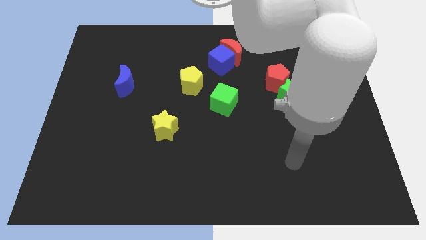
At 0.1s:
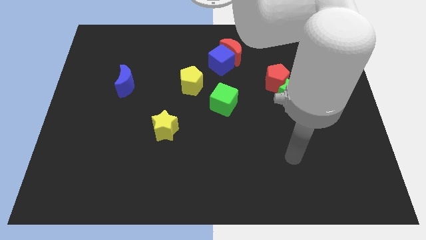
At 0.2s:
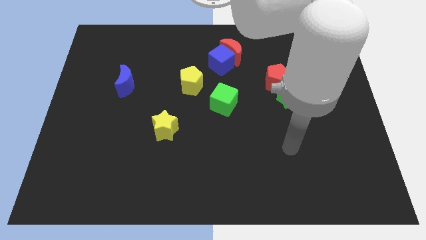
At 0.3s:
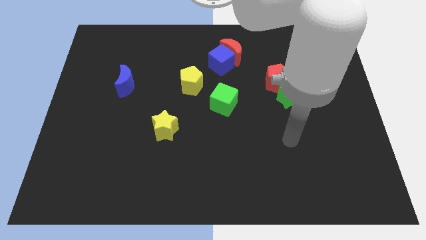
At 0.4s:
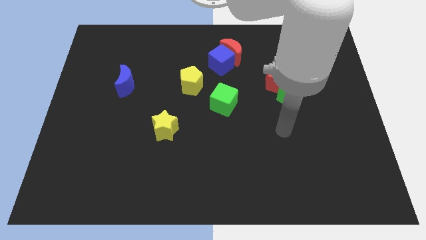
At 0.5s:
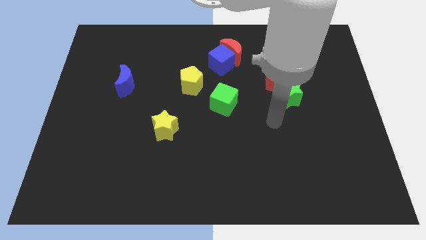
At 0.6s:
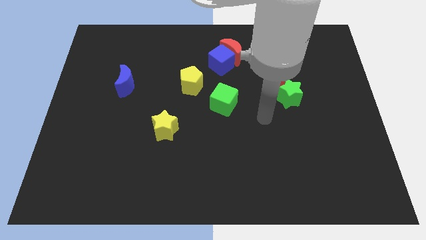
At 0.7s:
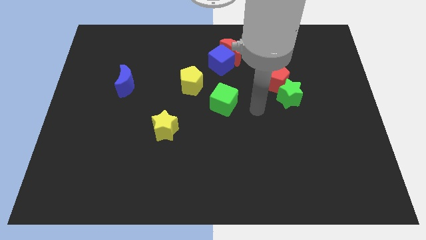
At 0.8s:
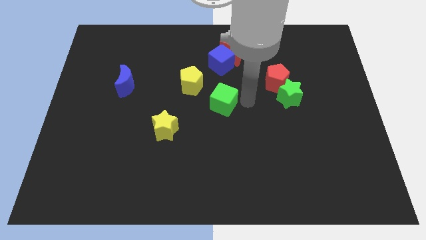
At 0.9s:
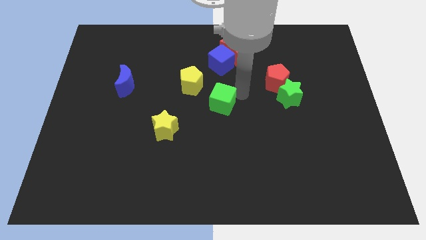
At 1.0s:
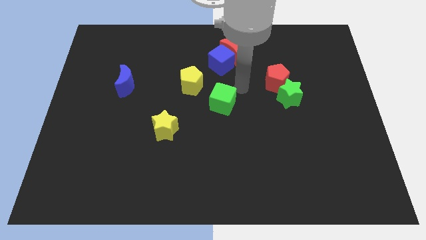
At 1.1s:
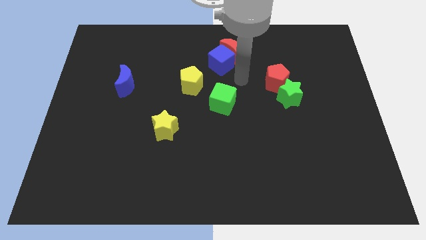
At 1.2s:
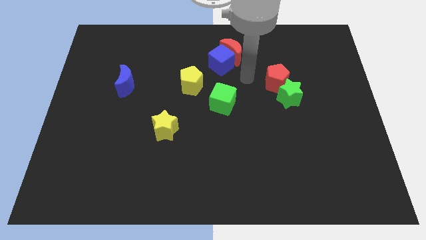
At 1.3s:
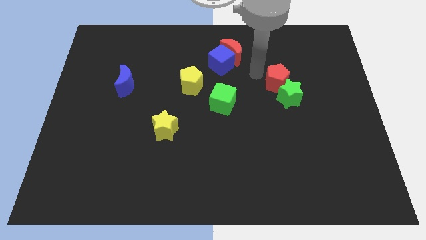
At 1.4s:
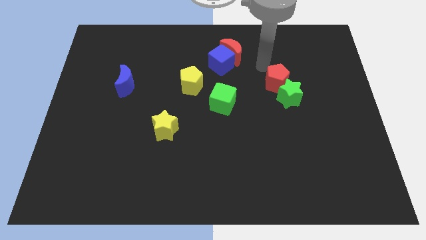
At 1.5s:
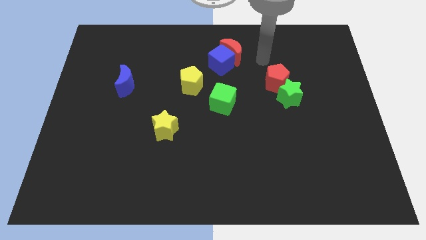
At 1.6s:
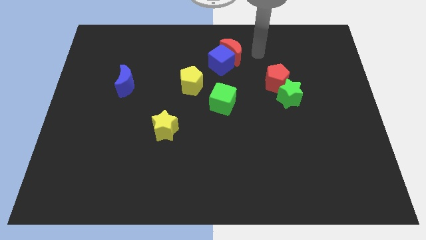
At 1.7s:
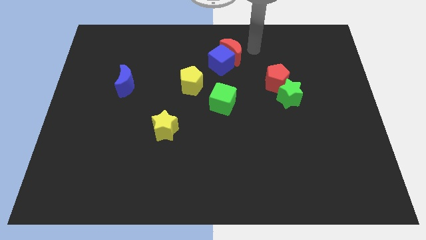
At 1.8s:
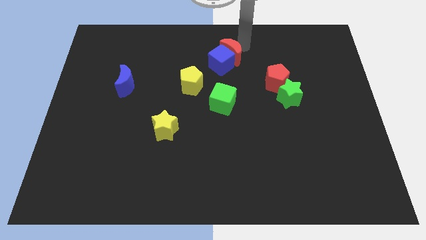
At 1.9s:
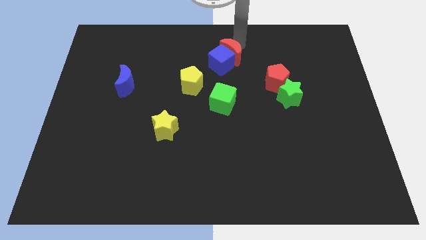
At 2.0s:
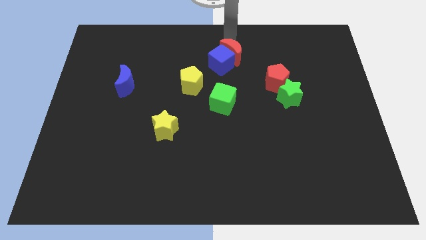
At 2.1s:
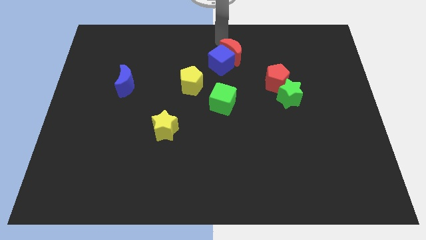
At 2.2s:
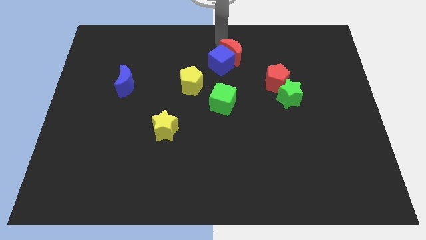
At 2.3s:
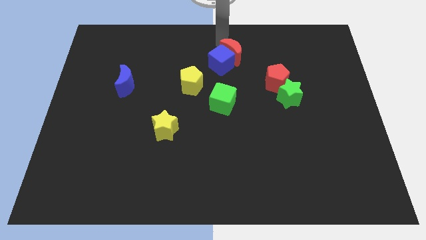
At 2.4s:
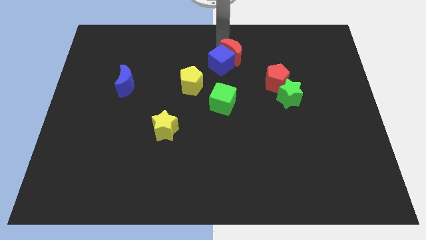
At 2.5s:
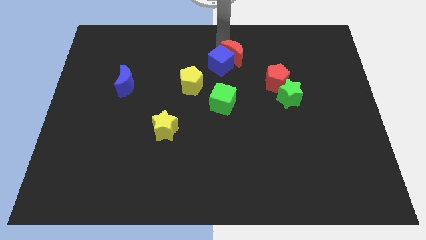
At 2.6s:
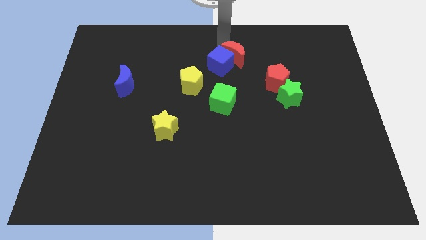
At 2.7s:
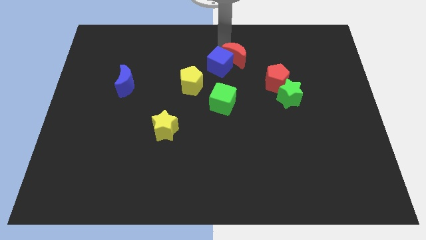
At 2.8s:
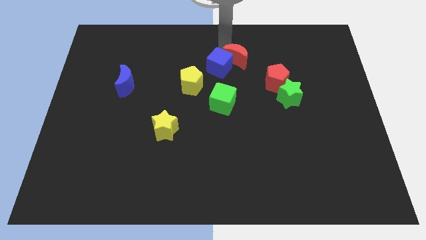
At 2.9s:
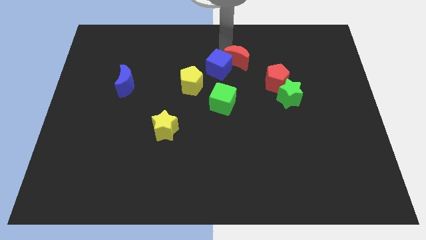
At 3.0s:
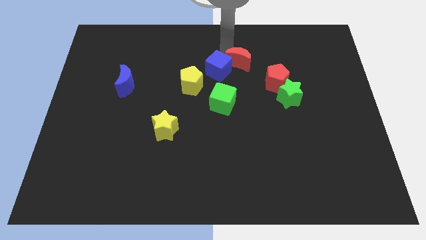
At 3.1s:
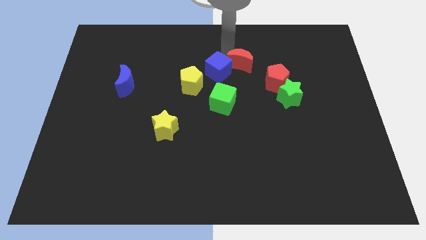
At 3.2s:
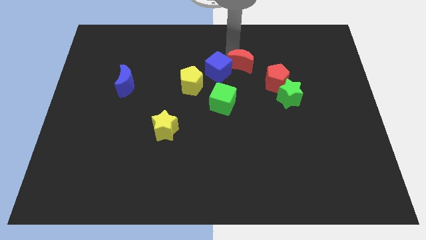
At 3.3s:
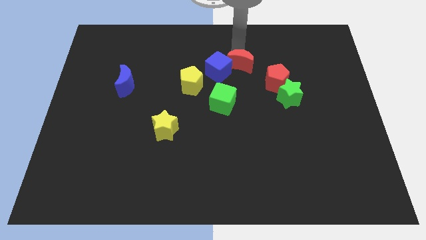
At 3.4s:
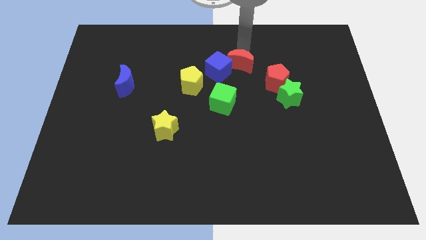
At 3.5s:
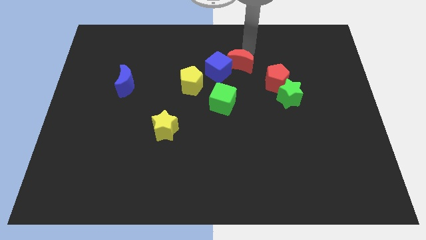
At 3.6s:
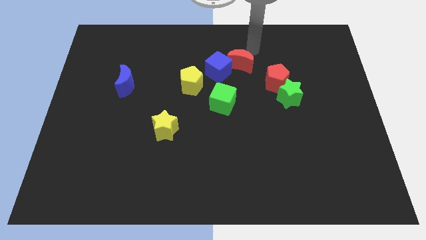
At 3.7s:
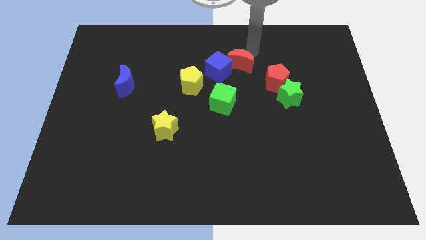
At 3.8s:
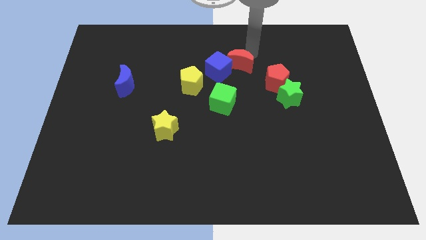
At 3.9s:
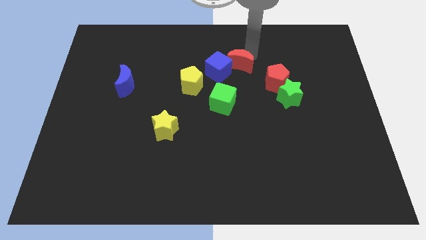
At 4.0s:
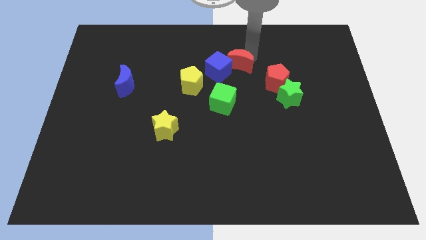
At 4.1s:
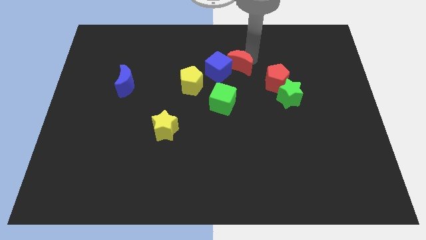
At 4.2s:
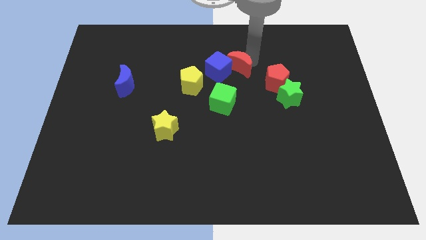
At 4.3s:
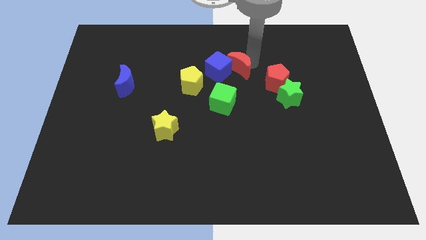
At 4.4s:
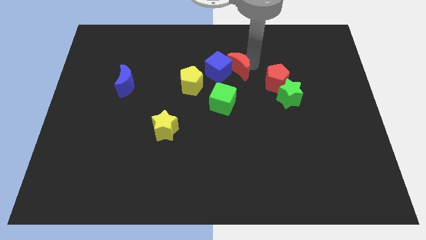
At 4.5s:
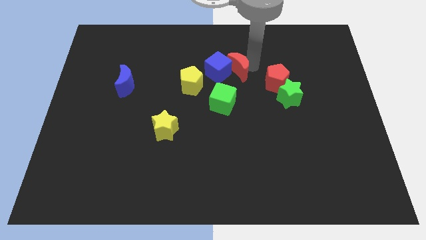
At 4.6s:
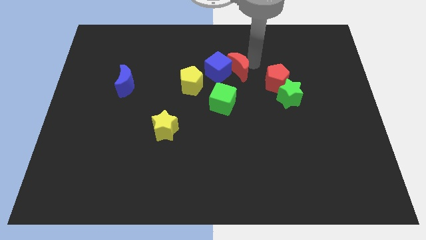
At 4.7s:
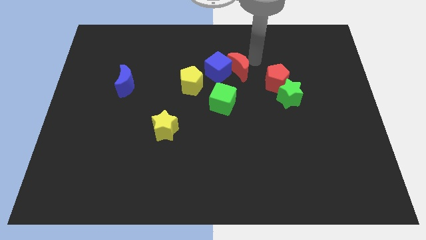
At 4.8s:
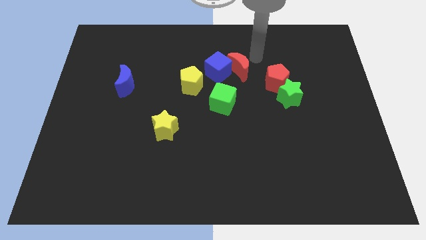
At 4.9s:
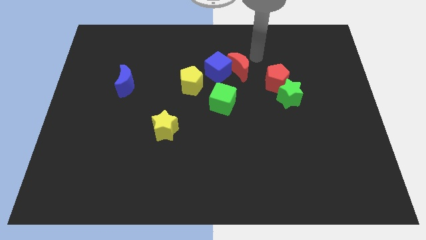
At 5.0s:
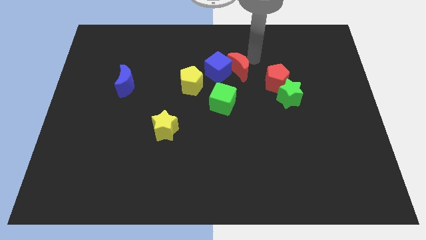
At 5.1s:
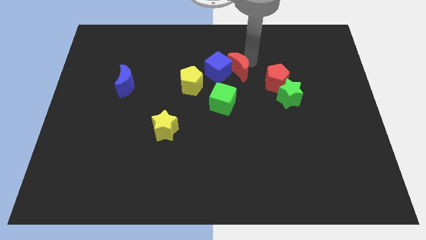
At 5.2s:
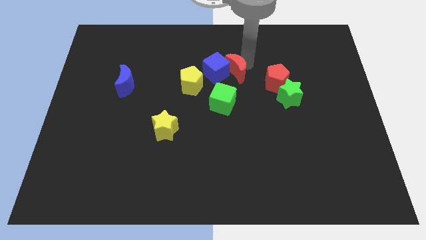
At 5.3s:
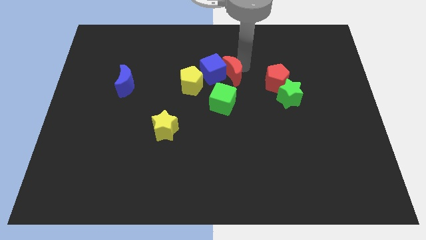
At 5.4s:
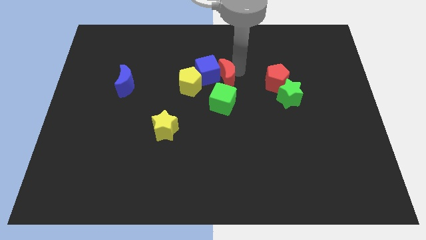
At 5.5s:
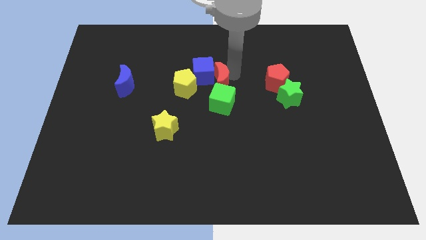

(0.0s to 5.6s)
slightly slide the red moon down and to the left diagonally

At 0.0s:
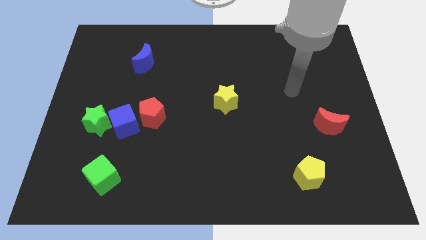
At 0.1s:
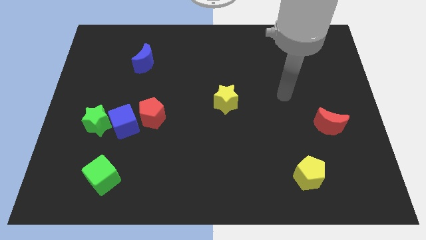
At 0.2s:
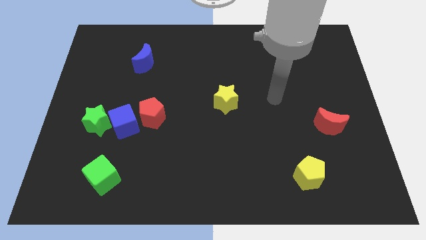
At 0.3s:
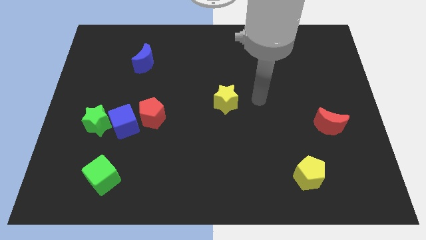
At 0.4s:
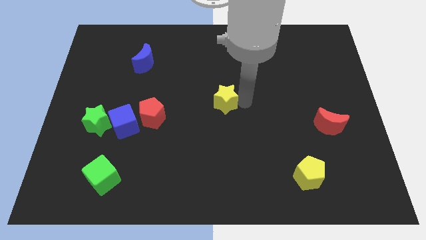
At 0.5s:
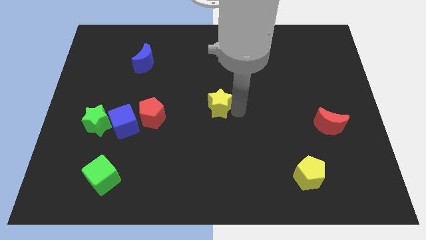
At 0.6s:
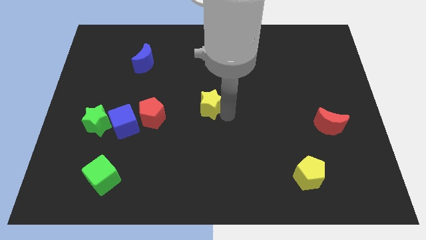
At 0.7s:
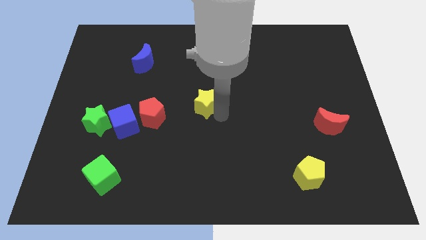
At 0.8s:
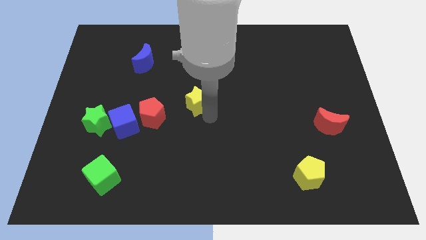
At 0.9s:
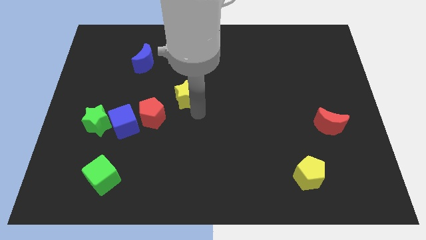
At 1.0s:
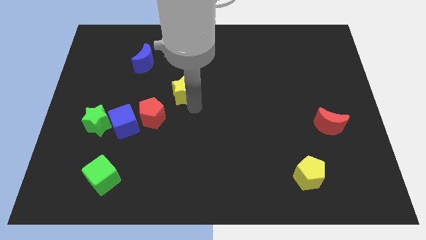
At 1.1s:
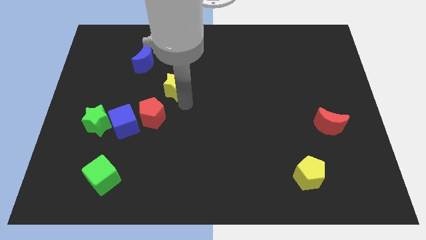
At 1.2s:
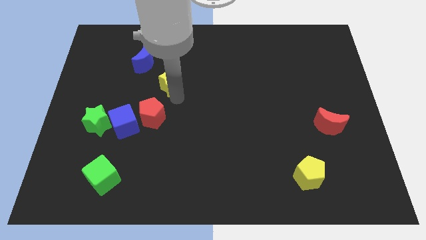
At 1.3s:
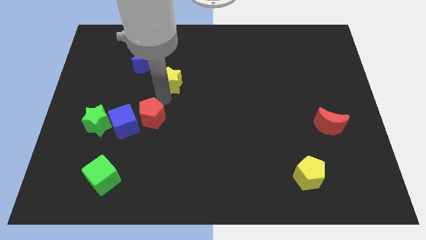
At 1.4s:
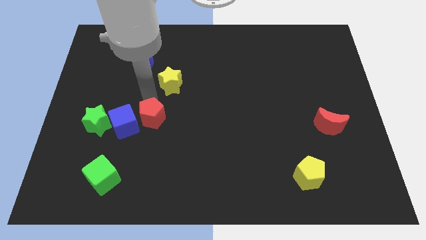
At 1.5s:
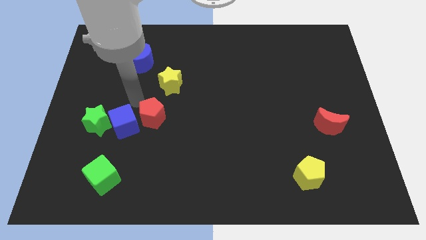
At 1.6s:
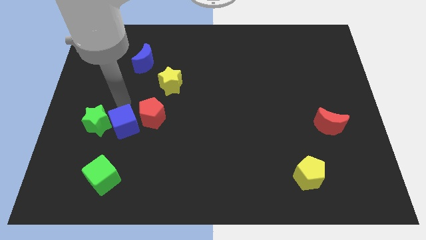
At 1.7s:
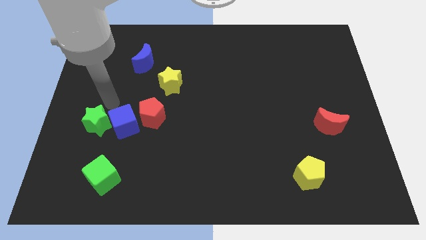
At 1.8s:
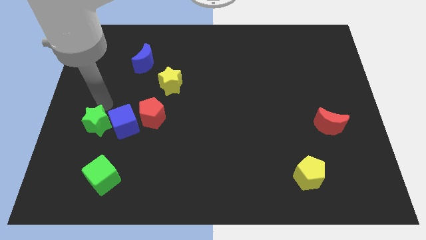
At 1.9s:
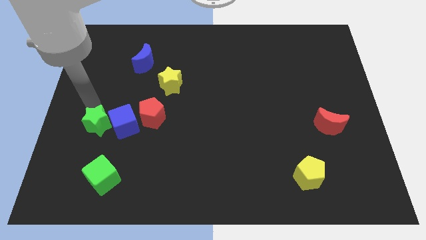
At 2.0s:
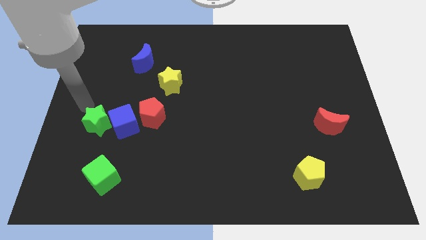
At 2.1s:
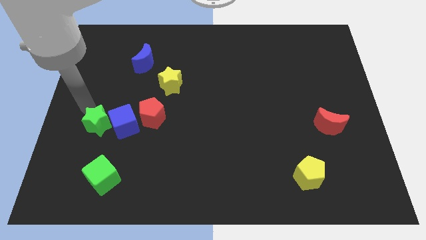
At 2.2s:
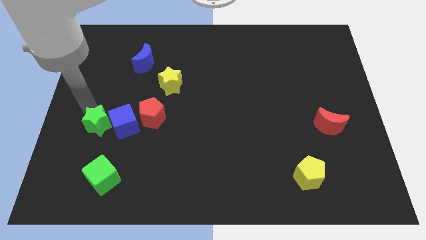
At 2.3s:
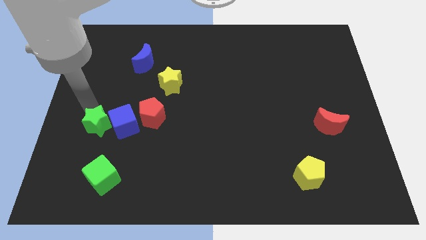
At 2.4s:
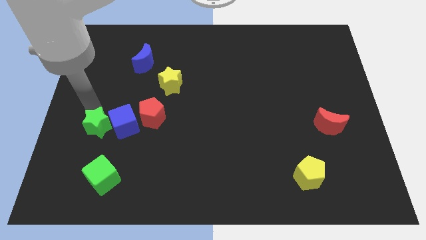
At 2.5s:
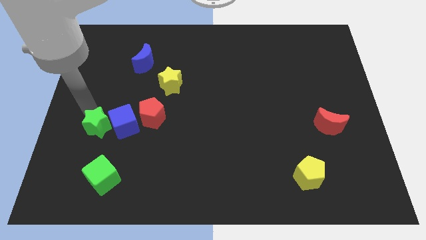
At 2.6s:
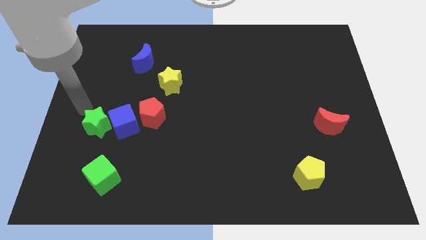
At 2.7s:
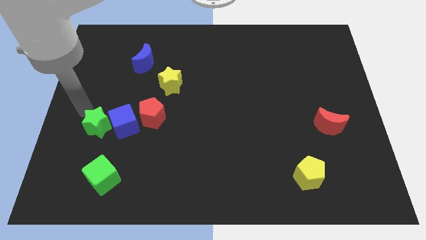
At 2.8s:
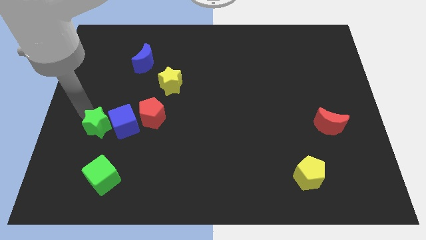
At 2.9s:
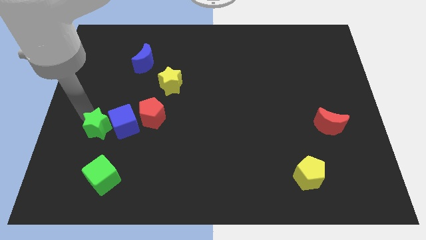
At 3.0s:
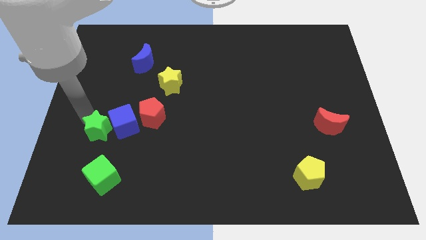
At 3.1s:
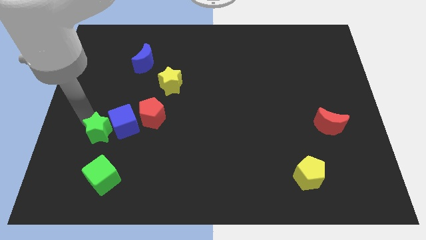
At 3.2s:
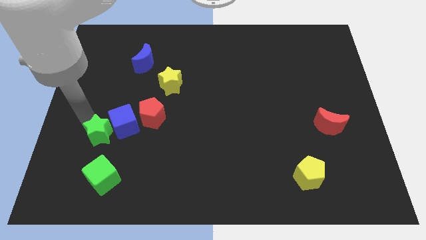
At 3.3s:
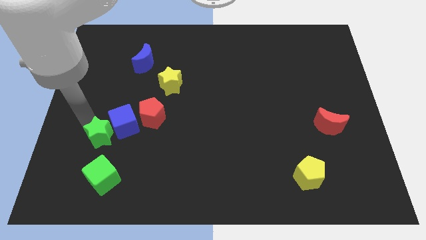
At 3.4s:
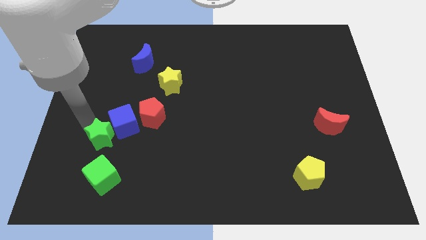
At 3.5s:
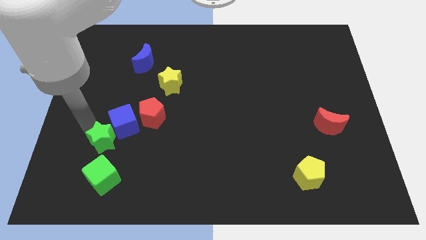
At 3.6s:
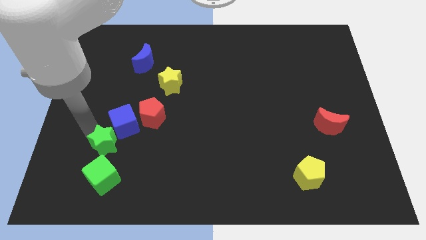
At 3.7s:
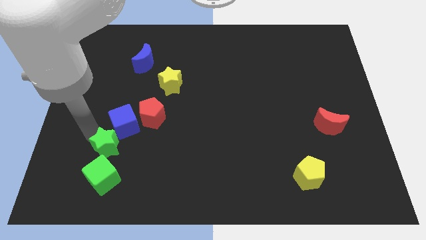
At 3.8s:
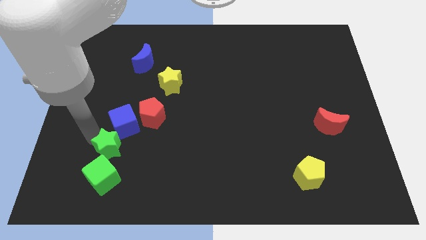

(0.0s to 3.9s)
slightly move the green star downwards and then to the right
